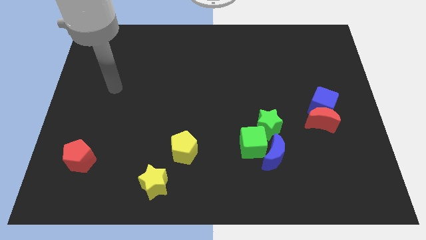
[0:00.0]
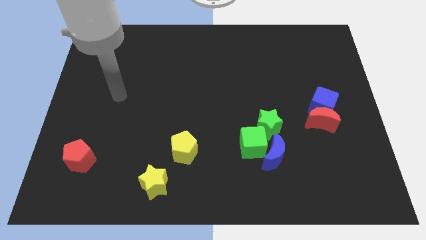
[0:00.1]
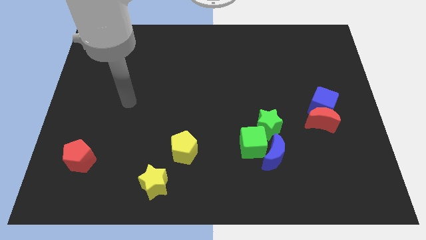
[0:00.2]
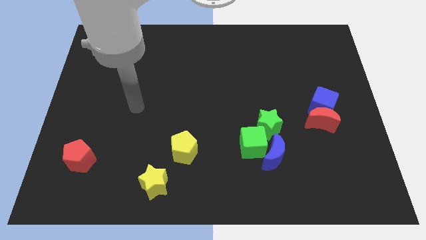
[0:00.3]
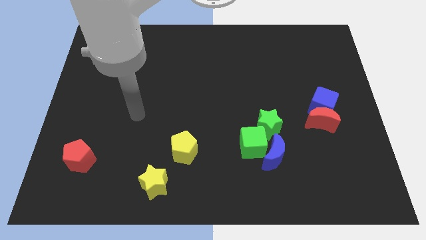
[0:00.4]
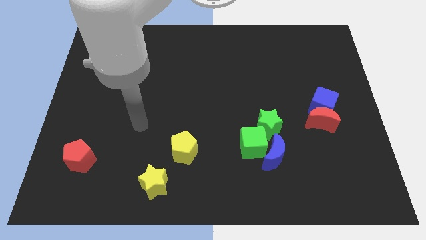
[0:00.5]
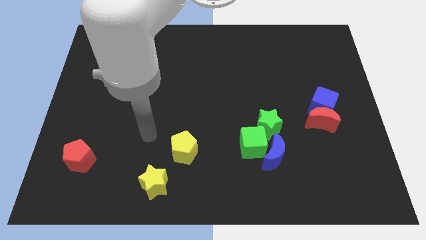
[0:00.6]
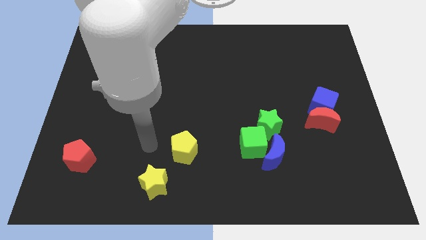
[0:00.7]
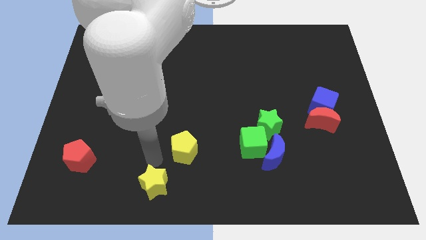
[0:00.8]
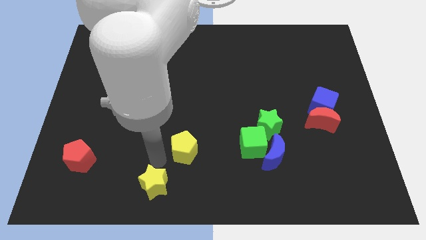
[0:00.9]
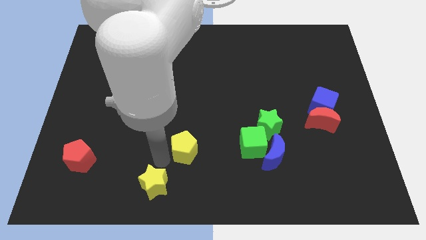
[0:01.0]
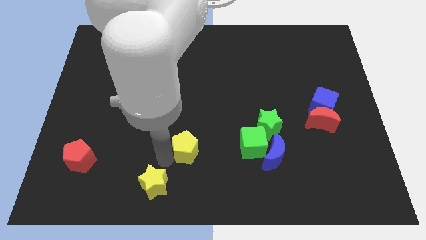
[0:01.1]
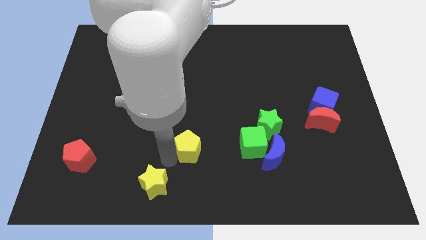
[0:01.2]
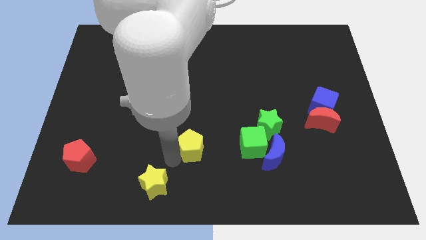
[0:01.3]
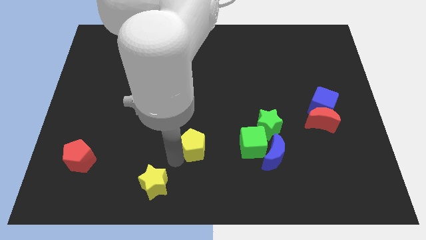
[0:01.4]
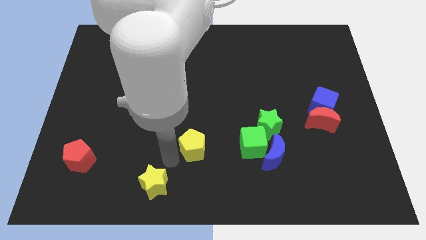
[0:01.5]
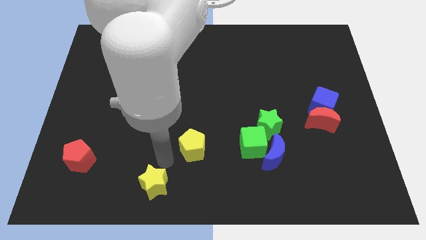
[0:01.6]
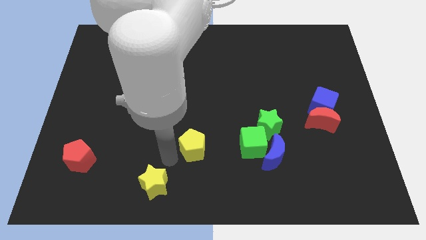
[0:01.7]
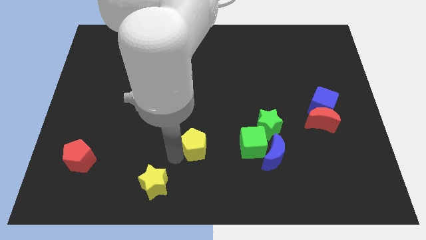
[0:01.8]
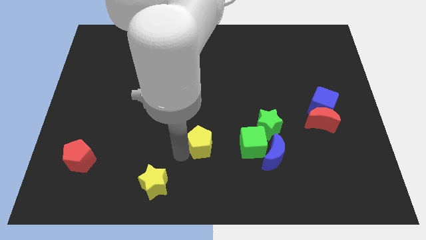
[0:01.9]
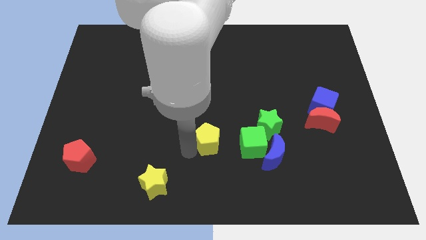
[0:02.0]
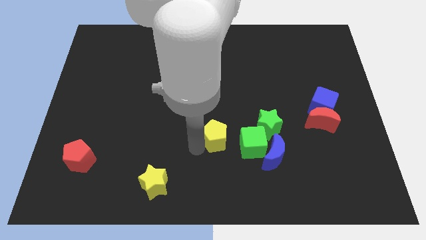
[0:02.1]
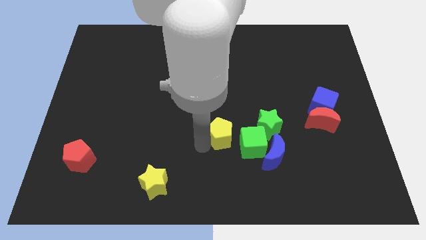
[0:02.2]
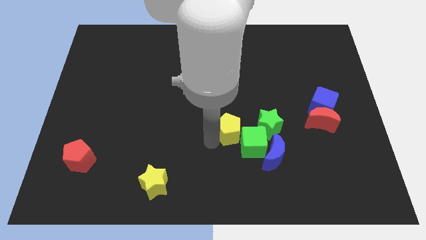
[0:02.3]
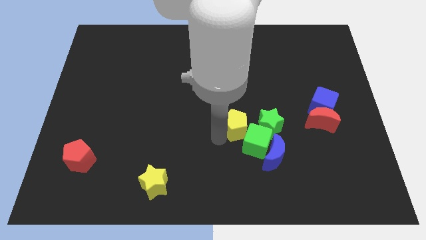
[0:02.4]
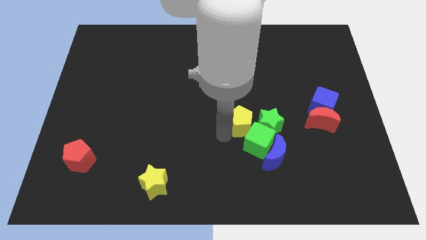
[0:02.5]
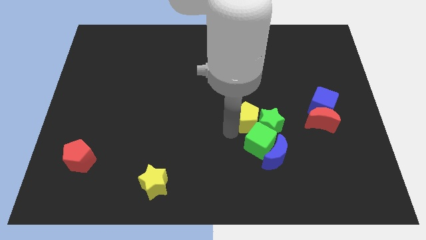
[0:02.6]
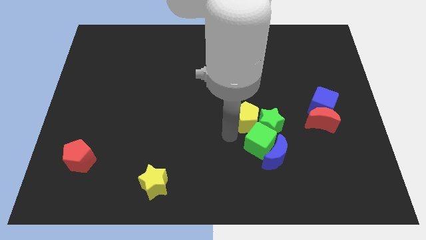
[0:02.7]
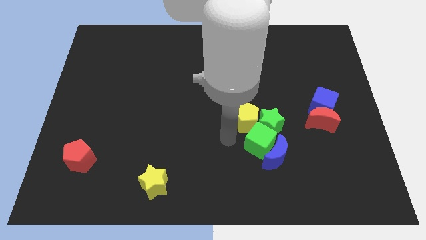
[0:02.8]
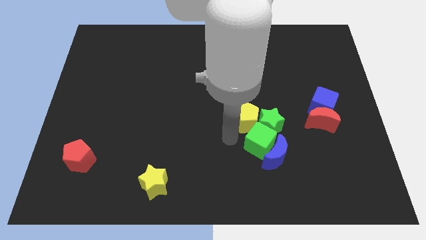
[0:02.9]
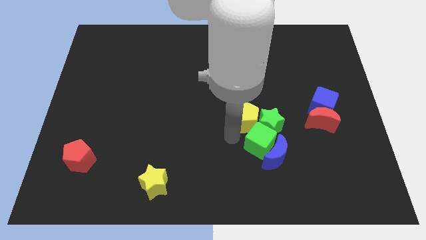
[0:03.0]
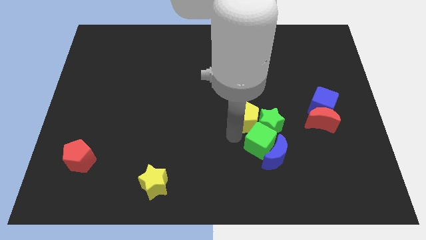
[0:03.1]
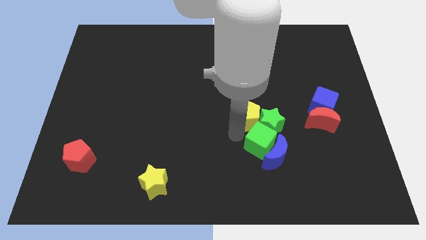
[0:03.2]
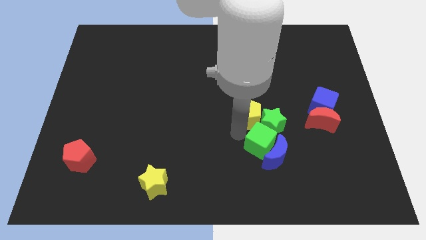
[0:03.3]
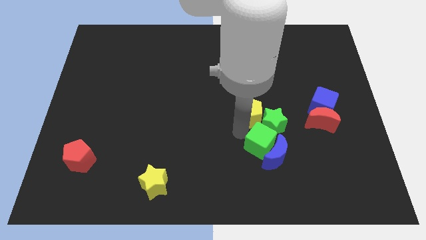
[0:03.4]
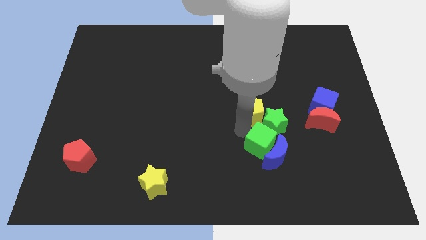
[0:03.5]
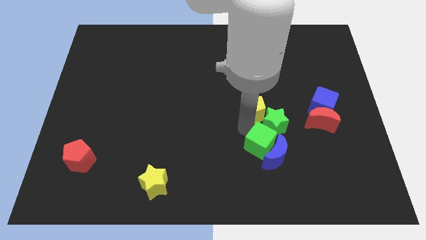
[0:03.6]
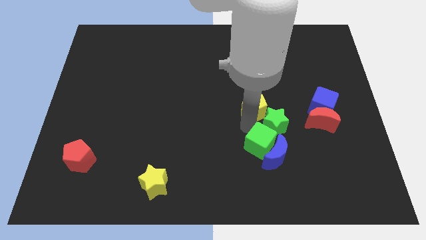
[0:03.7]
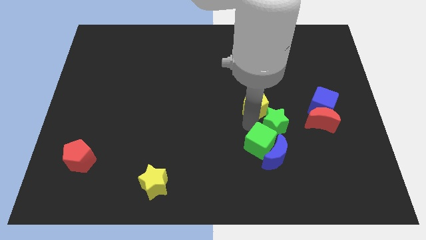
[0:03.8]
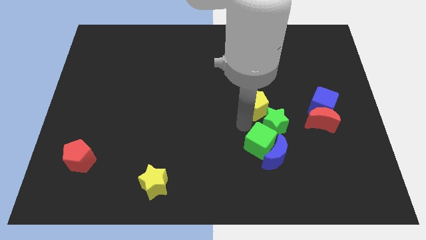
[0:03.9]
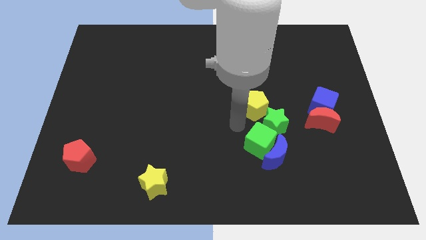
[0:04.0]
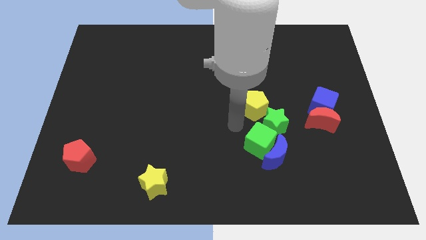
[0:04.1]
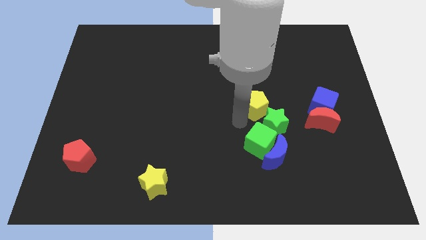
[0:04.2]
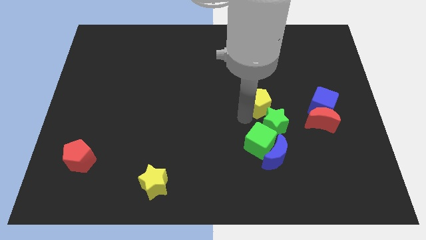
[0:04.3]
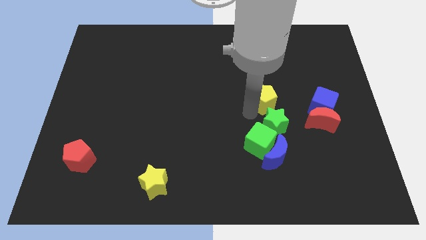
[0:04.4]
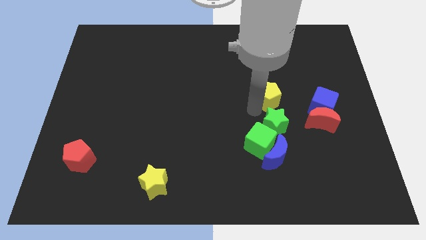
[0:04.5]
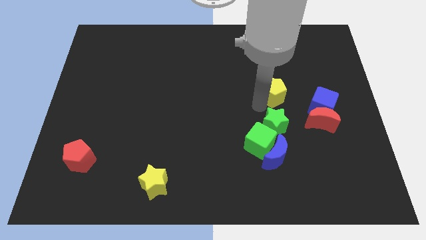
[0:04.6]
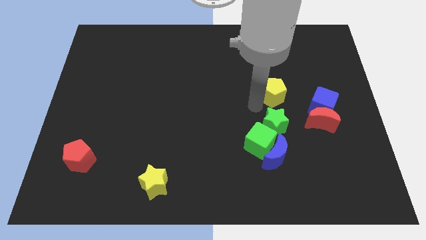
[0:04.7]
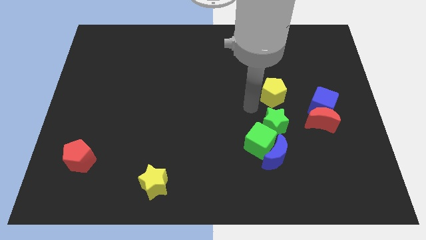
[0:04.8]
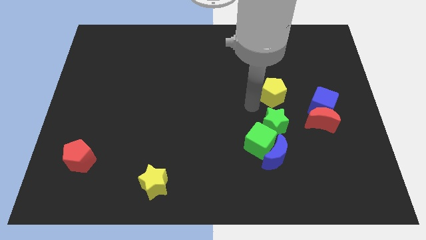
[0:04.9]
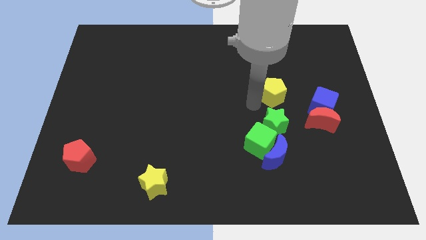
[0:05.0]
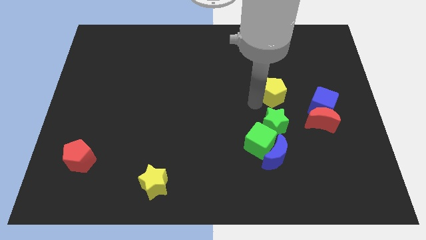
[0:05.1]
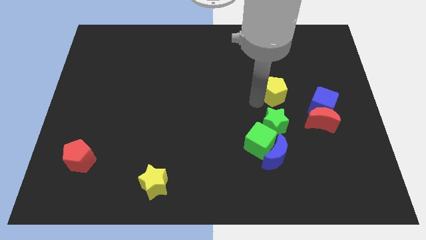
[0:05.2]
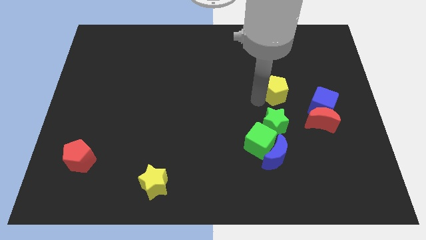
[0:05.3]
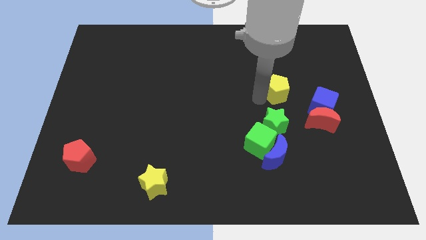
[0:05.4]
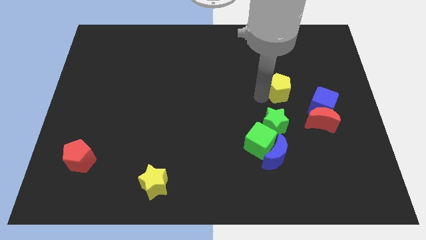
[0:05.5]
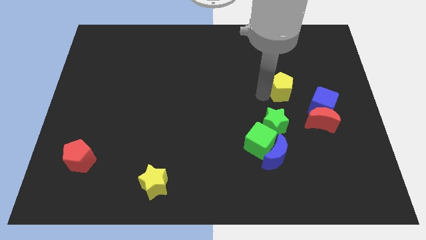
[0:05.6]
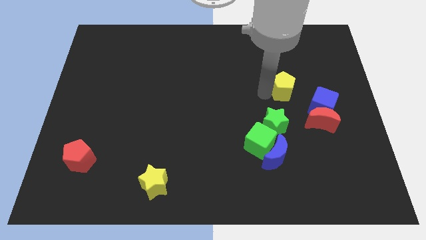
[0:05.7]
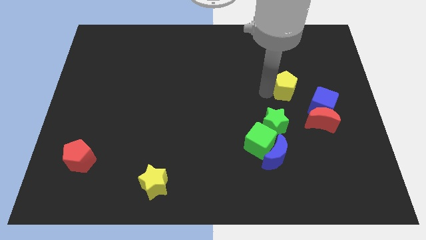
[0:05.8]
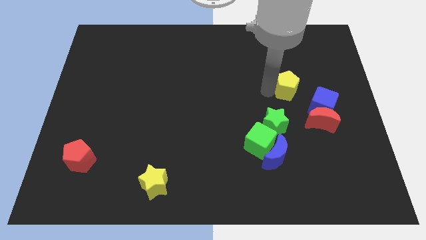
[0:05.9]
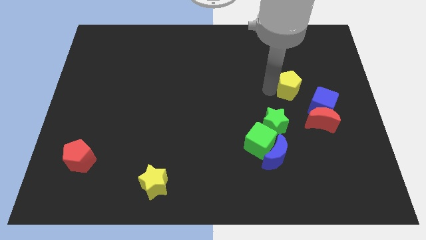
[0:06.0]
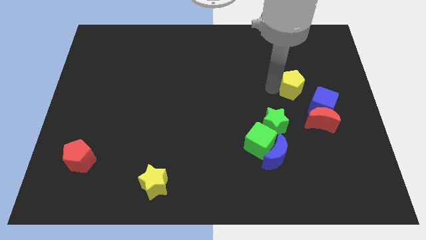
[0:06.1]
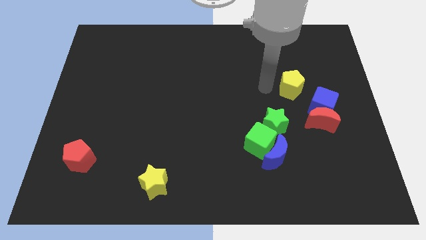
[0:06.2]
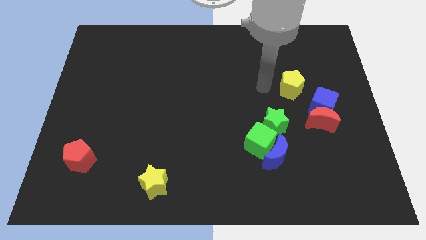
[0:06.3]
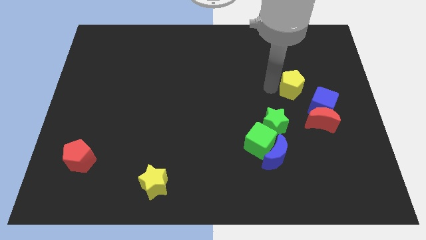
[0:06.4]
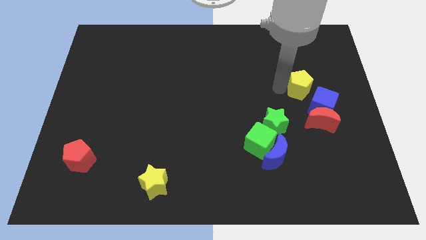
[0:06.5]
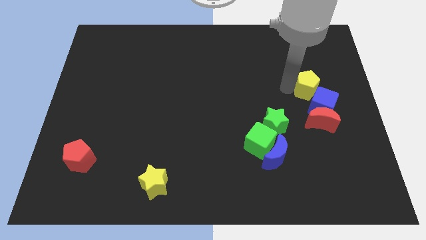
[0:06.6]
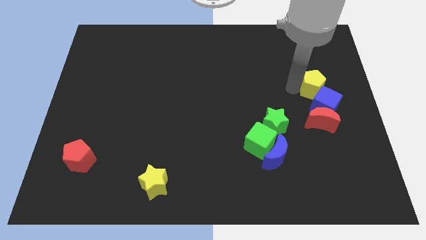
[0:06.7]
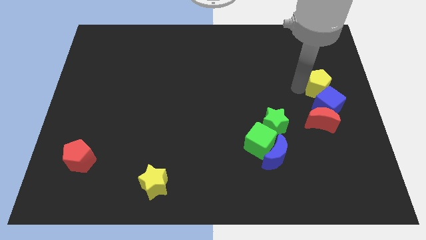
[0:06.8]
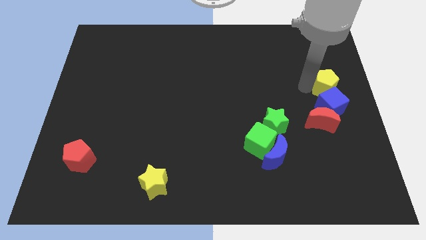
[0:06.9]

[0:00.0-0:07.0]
slide the yellow pentagon to the right side of the board
